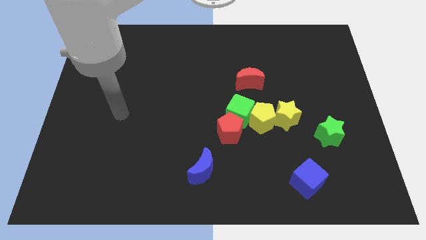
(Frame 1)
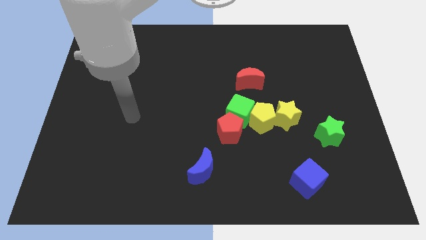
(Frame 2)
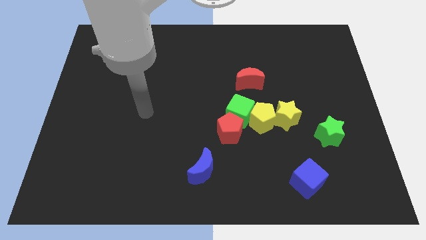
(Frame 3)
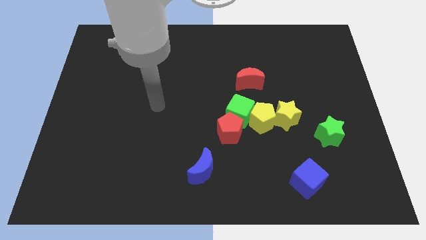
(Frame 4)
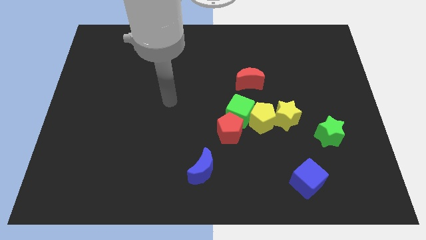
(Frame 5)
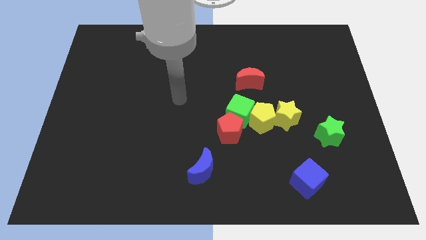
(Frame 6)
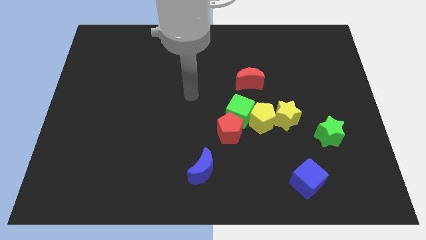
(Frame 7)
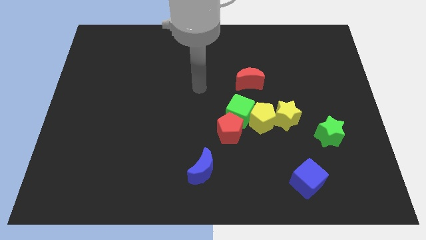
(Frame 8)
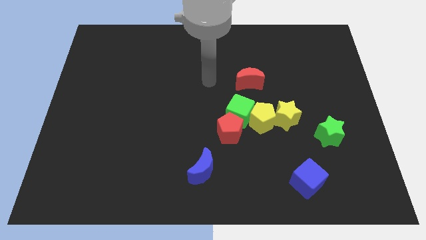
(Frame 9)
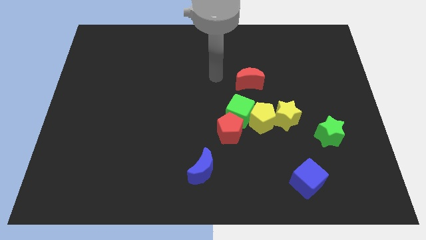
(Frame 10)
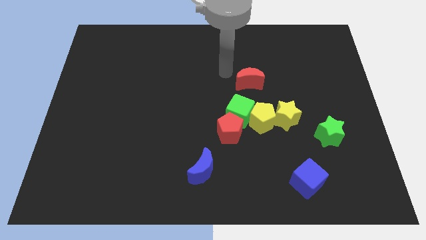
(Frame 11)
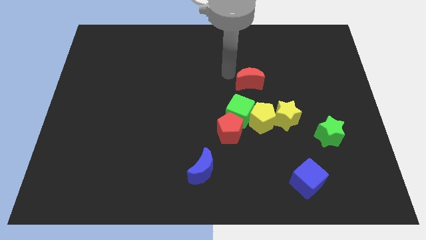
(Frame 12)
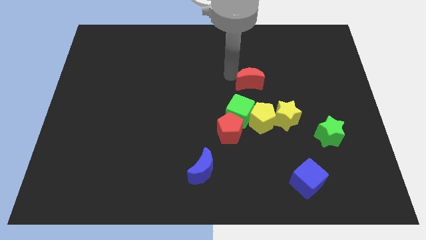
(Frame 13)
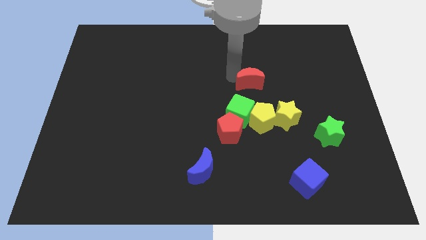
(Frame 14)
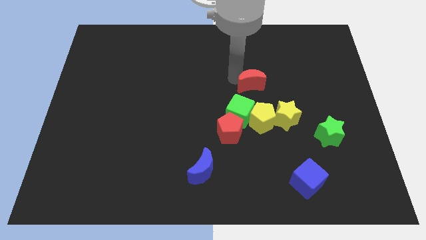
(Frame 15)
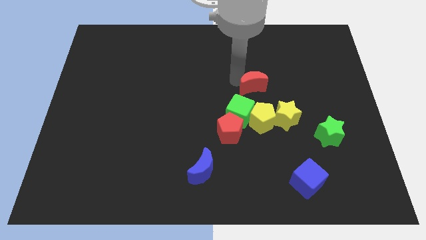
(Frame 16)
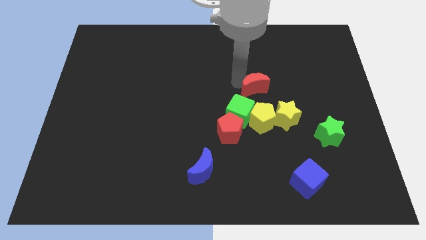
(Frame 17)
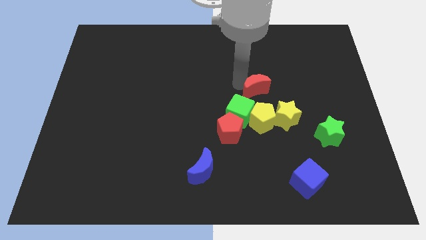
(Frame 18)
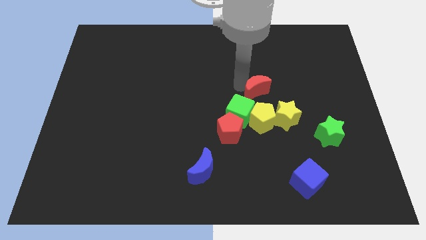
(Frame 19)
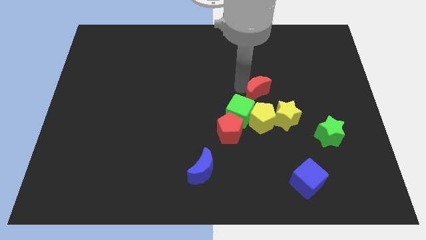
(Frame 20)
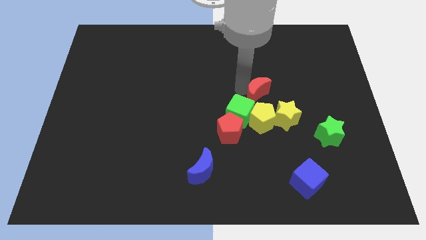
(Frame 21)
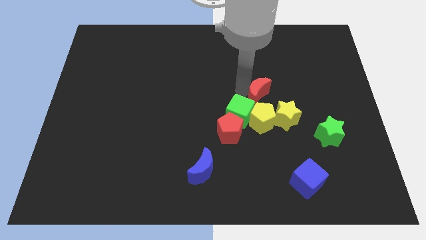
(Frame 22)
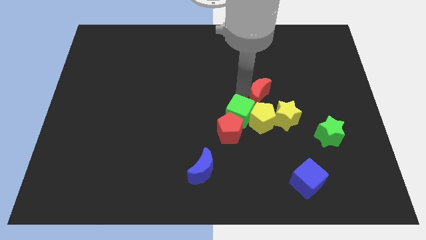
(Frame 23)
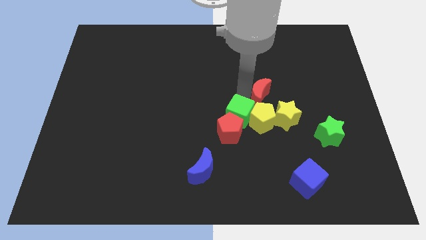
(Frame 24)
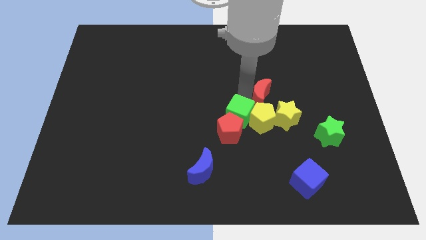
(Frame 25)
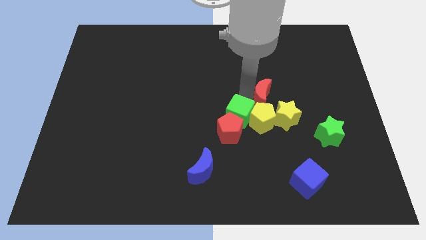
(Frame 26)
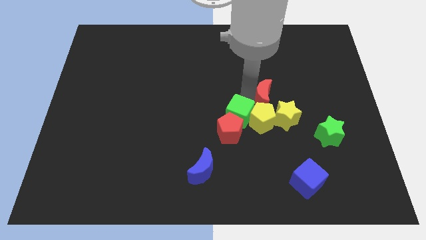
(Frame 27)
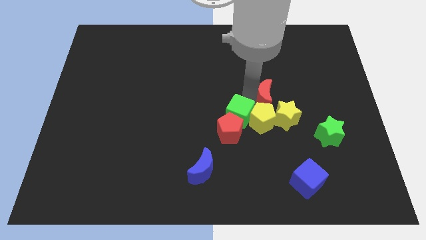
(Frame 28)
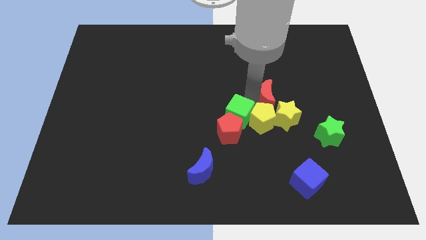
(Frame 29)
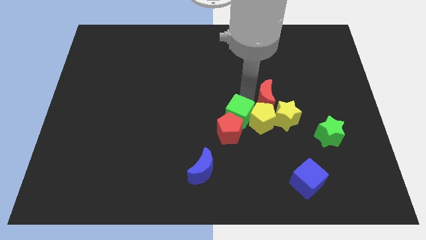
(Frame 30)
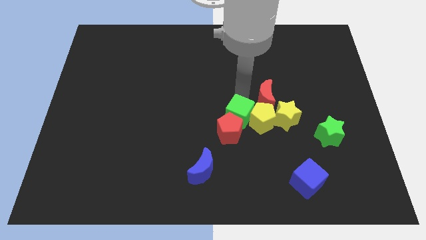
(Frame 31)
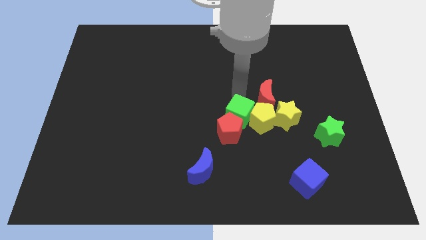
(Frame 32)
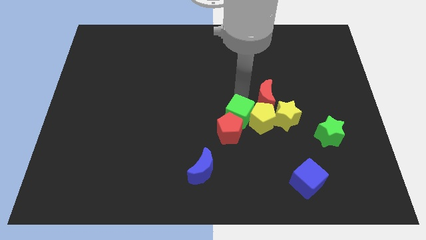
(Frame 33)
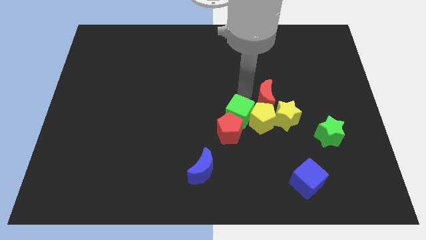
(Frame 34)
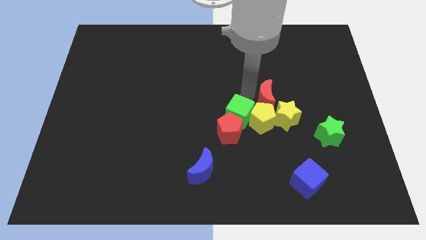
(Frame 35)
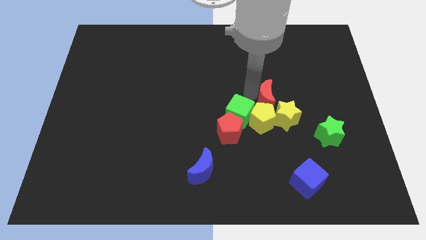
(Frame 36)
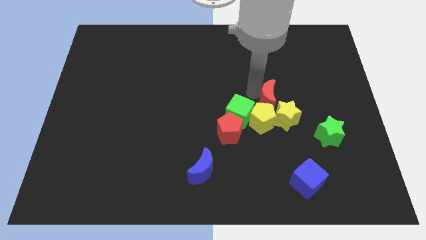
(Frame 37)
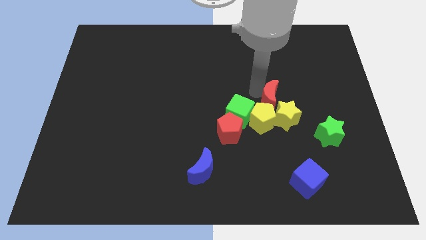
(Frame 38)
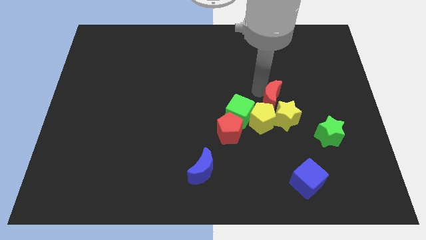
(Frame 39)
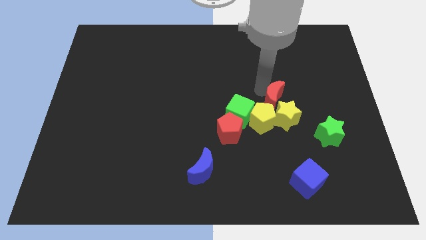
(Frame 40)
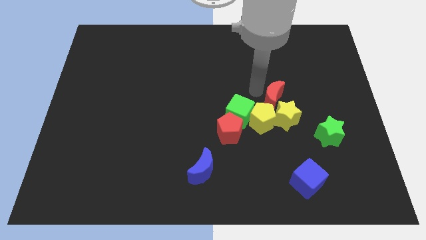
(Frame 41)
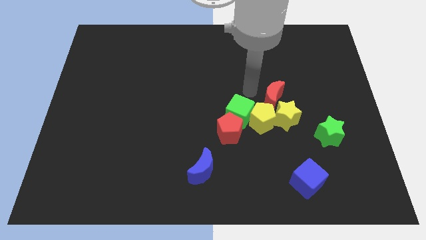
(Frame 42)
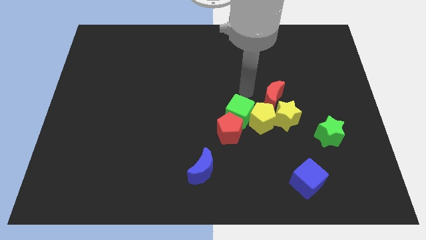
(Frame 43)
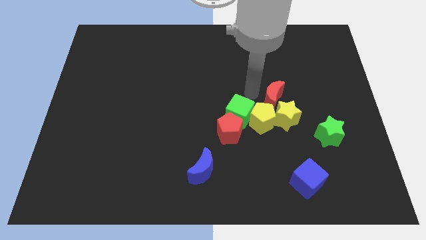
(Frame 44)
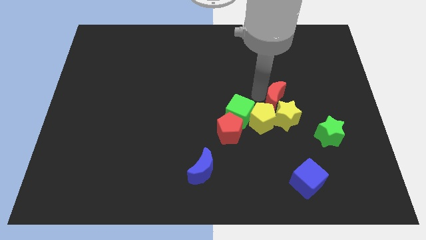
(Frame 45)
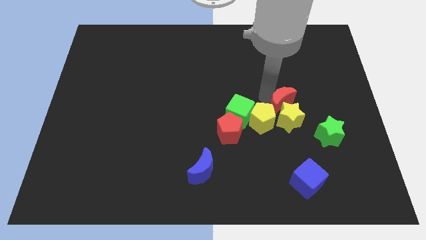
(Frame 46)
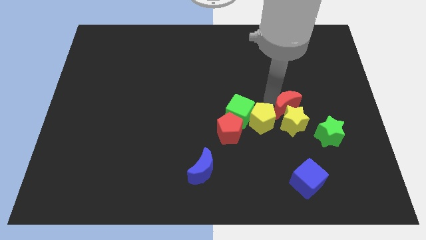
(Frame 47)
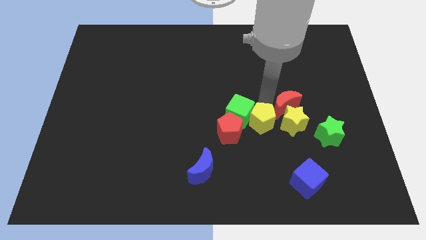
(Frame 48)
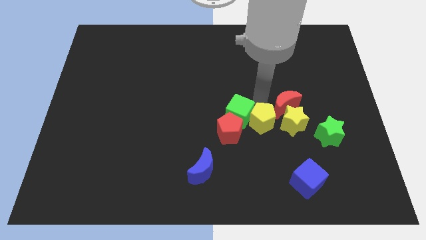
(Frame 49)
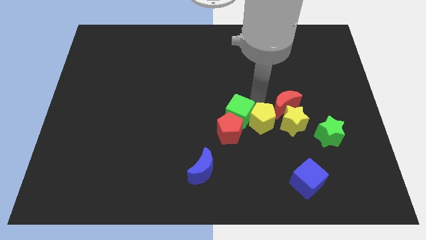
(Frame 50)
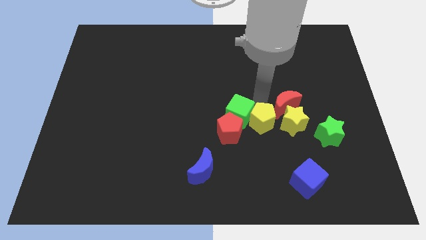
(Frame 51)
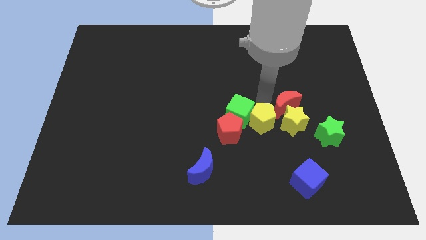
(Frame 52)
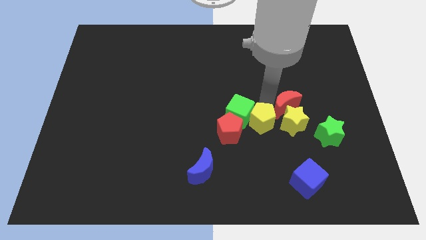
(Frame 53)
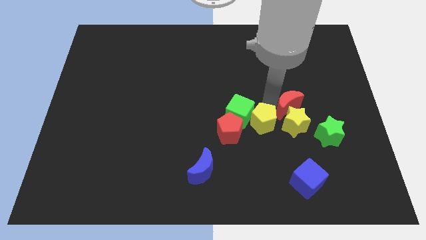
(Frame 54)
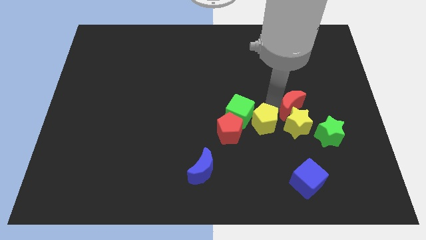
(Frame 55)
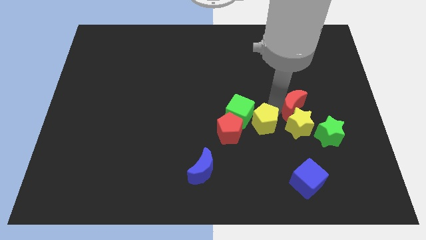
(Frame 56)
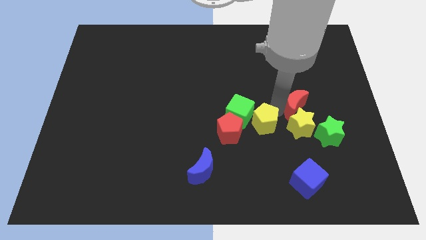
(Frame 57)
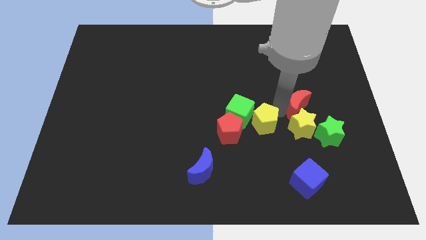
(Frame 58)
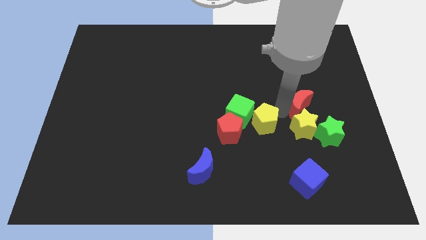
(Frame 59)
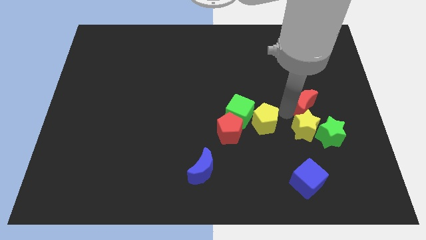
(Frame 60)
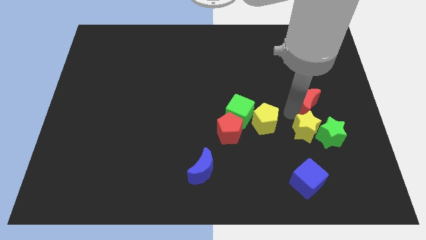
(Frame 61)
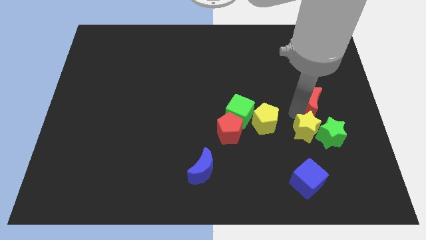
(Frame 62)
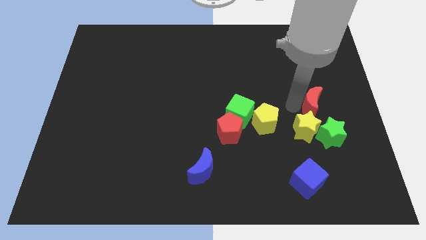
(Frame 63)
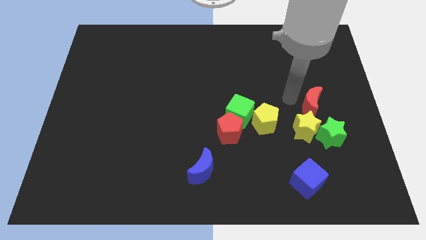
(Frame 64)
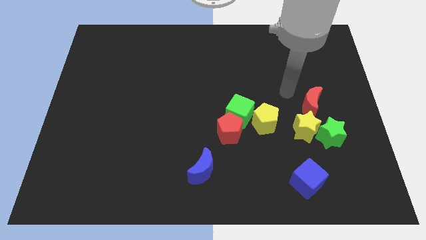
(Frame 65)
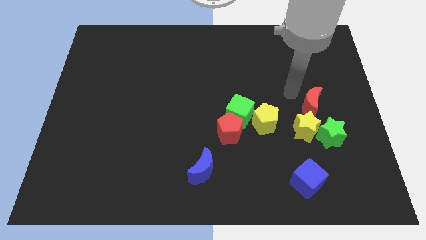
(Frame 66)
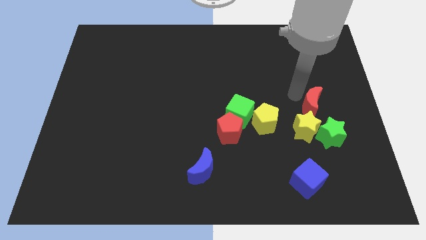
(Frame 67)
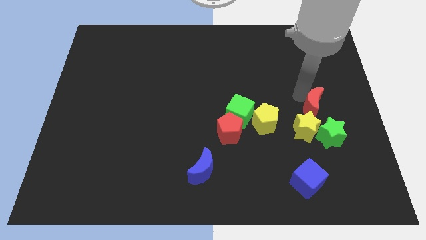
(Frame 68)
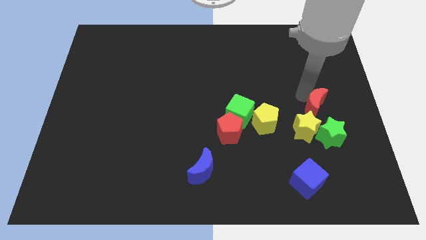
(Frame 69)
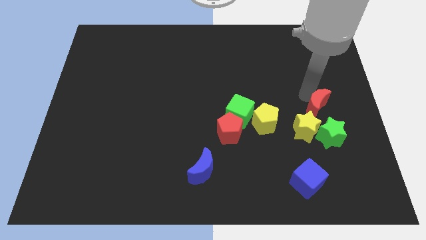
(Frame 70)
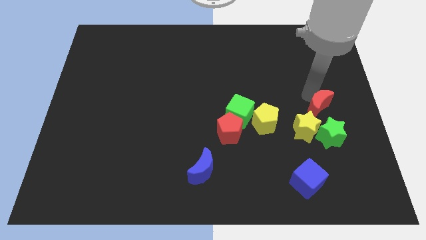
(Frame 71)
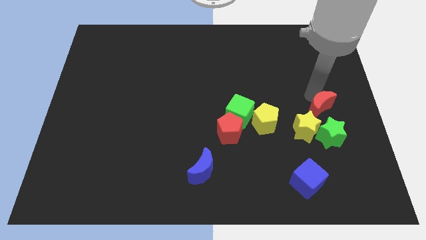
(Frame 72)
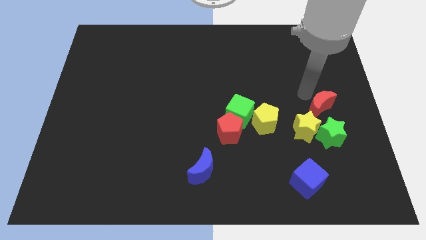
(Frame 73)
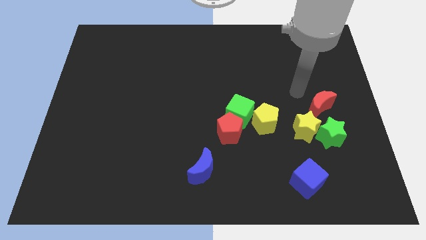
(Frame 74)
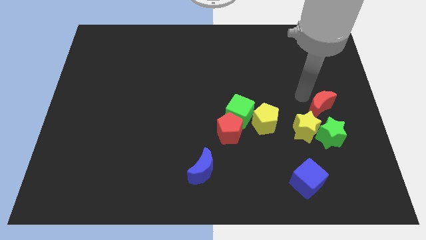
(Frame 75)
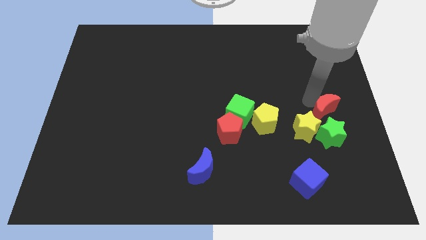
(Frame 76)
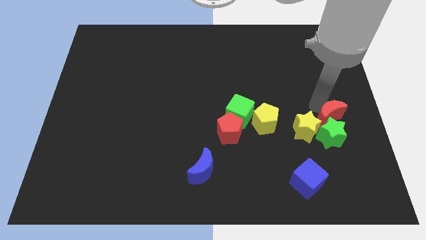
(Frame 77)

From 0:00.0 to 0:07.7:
slide the red moon to the right side of the yellow star
